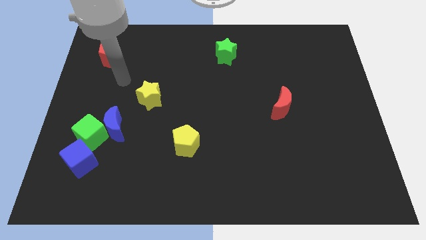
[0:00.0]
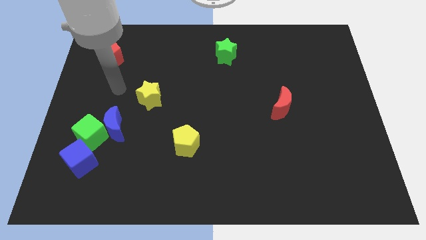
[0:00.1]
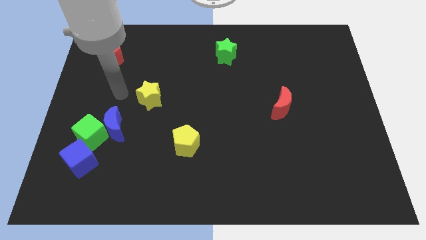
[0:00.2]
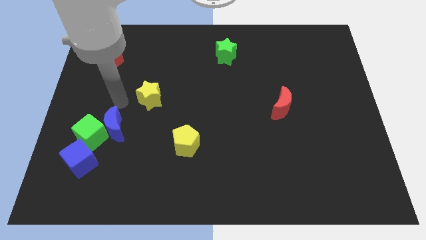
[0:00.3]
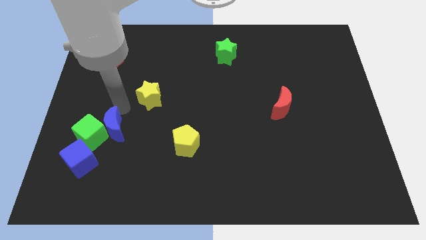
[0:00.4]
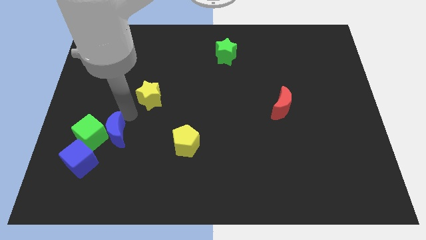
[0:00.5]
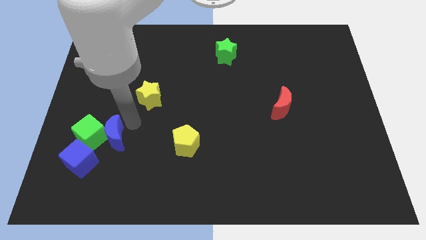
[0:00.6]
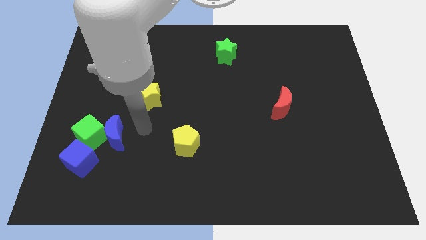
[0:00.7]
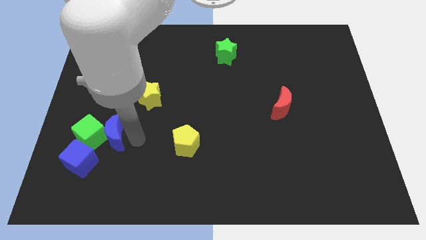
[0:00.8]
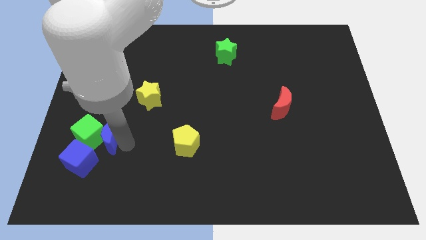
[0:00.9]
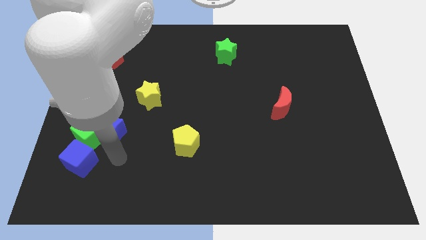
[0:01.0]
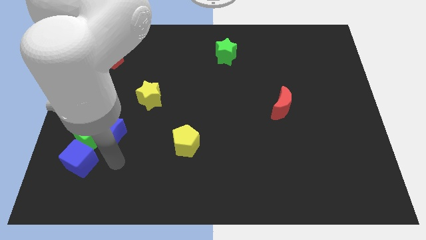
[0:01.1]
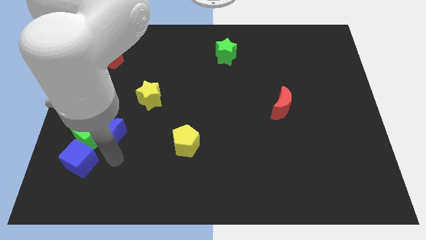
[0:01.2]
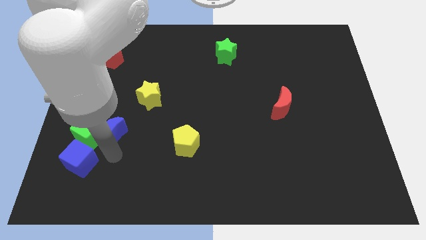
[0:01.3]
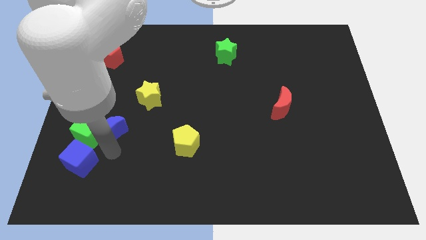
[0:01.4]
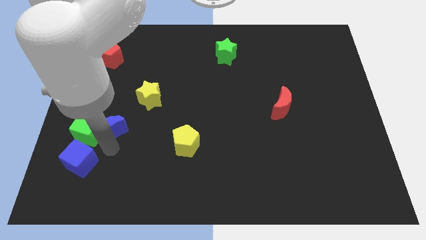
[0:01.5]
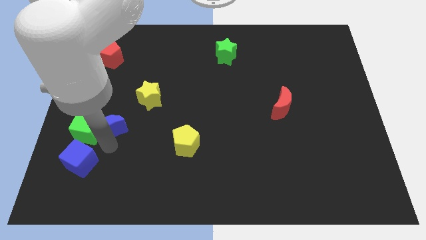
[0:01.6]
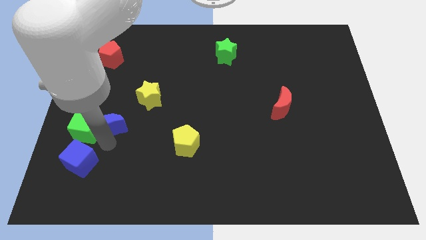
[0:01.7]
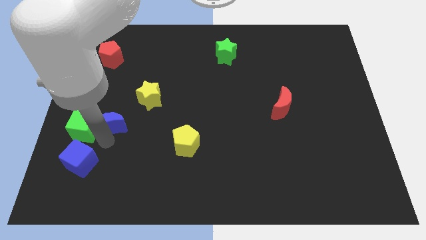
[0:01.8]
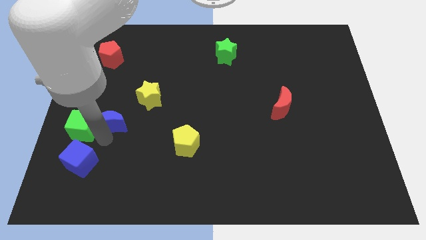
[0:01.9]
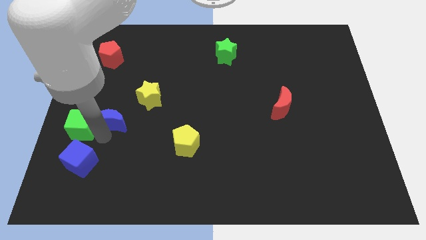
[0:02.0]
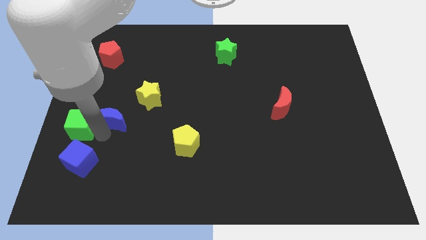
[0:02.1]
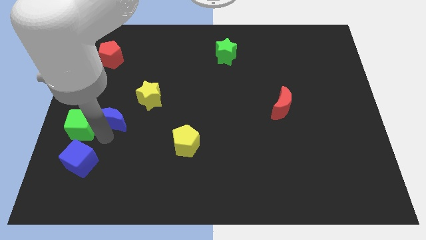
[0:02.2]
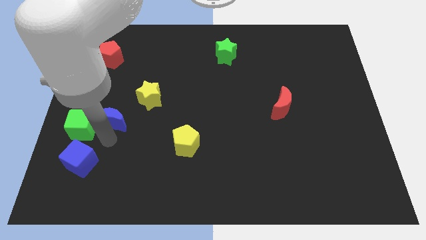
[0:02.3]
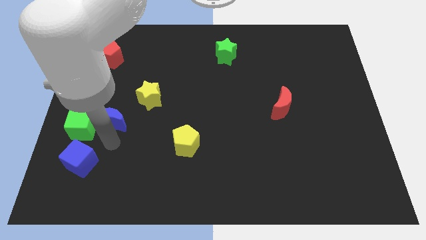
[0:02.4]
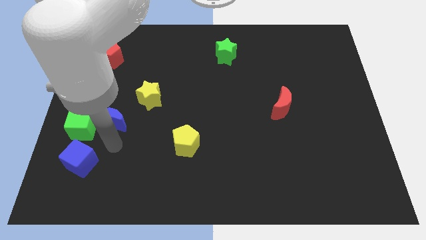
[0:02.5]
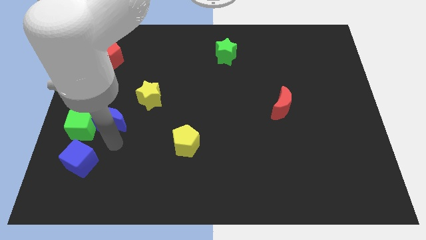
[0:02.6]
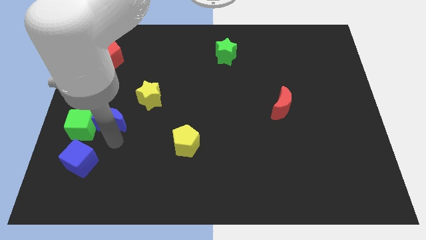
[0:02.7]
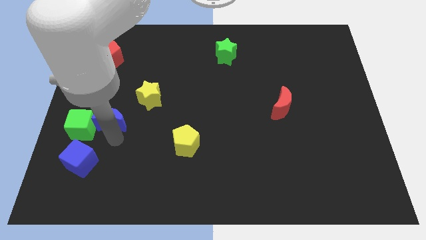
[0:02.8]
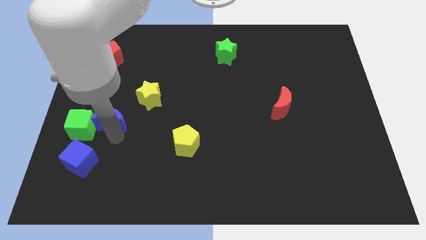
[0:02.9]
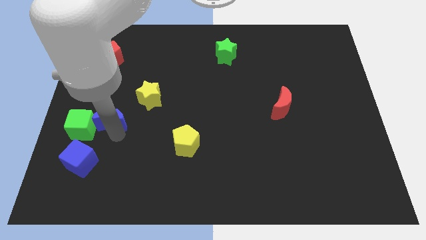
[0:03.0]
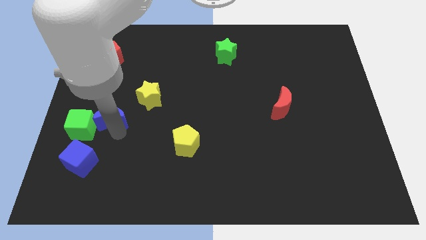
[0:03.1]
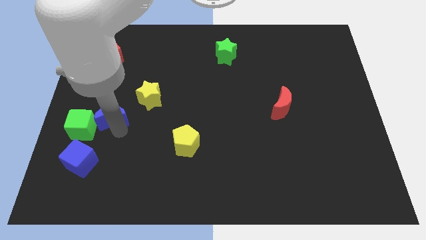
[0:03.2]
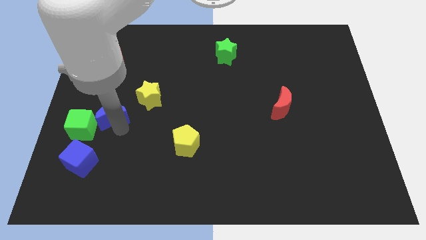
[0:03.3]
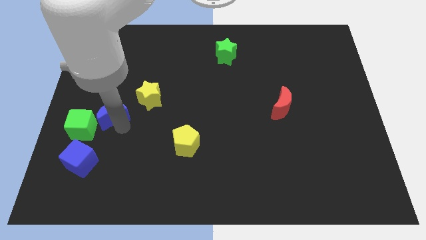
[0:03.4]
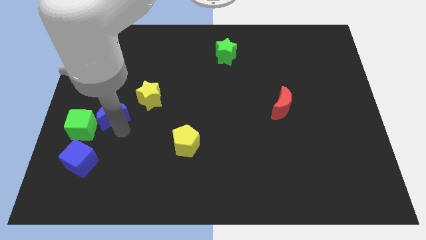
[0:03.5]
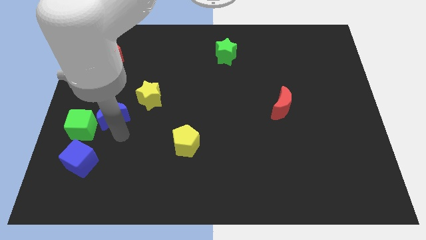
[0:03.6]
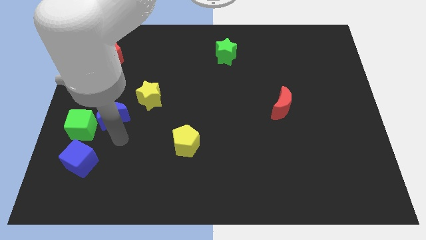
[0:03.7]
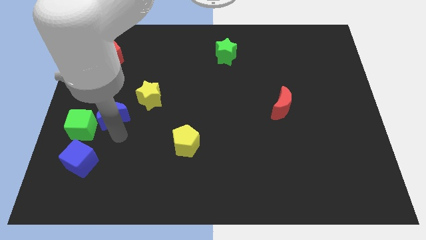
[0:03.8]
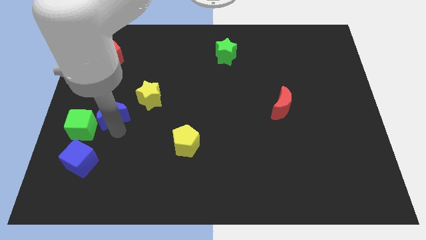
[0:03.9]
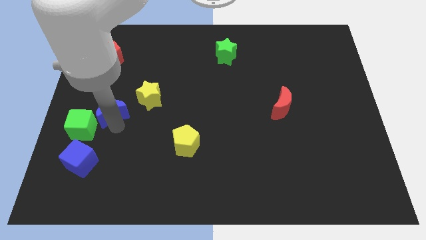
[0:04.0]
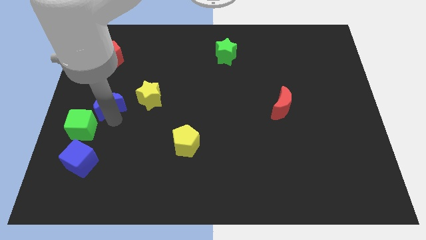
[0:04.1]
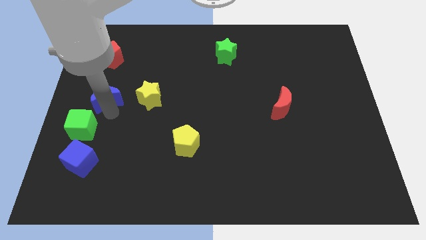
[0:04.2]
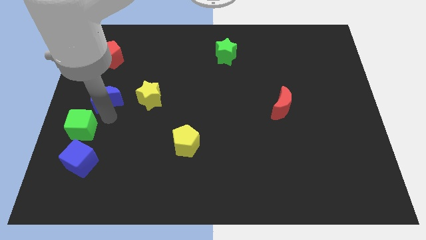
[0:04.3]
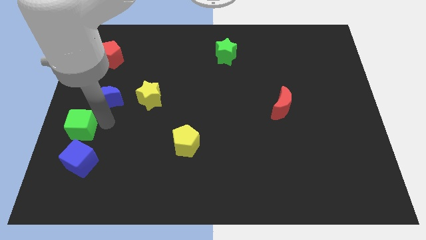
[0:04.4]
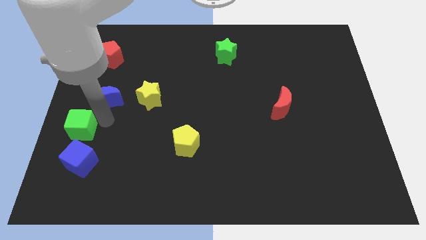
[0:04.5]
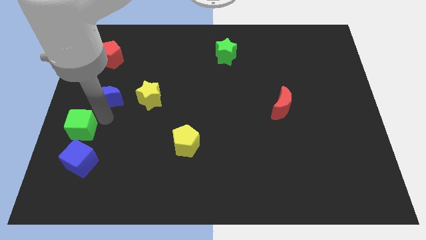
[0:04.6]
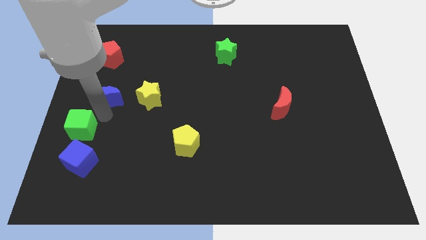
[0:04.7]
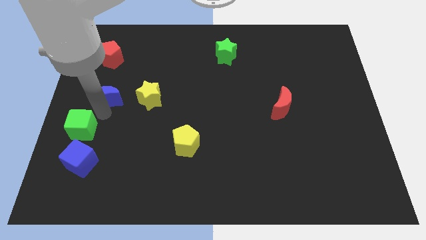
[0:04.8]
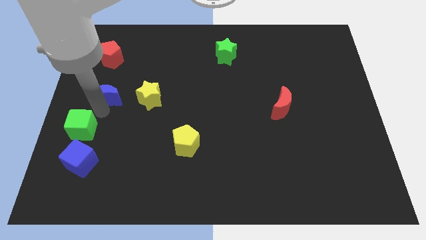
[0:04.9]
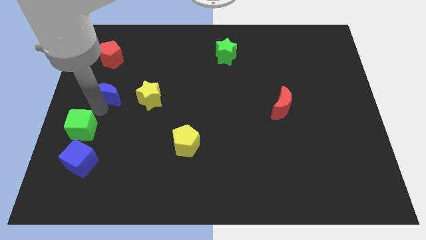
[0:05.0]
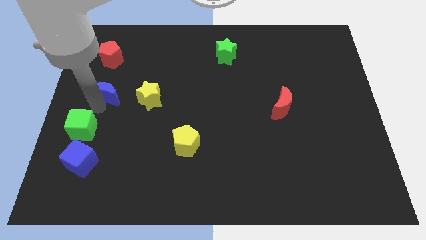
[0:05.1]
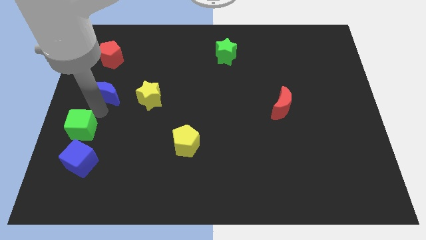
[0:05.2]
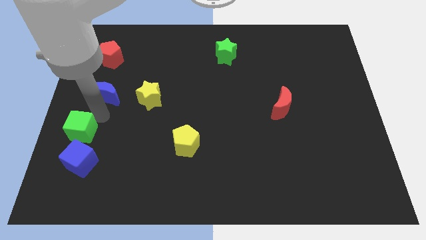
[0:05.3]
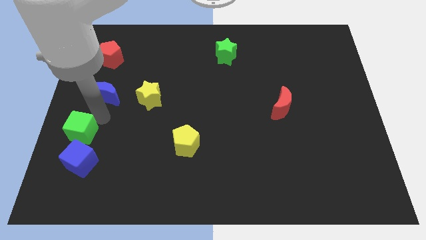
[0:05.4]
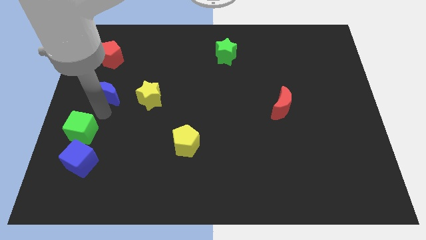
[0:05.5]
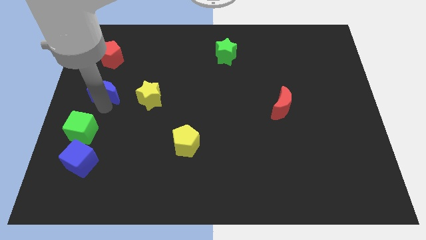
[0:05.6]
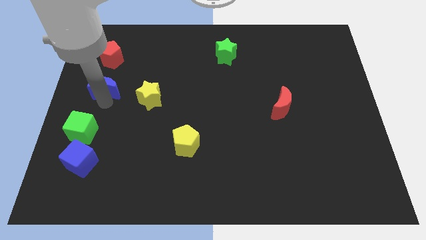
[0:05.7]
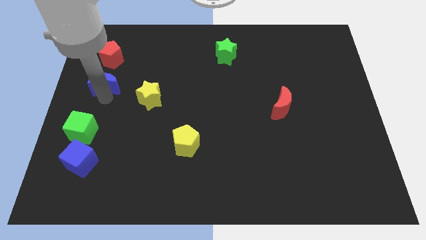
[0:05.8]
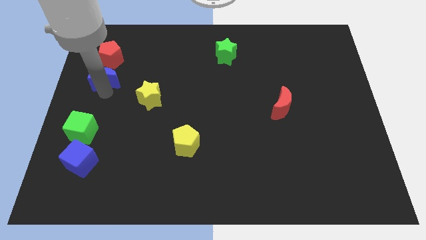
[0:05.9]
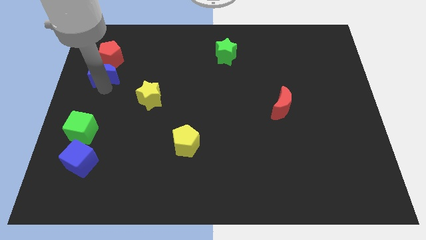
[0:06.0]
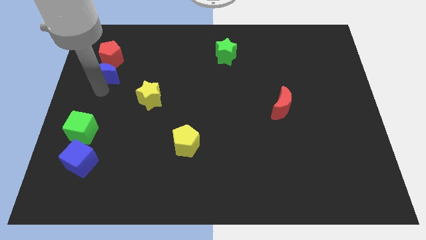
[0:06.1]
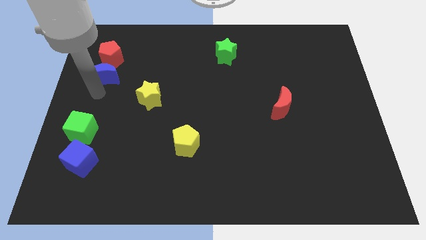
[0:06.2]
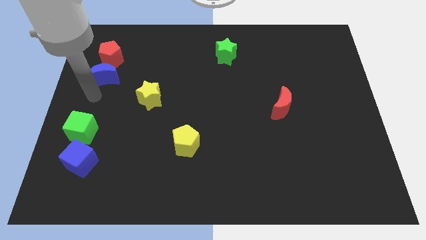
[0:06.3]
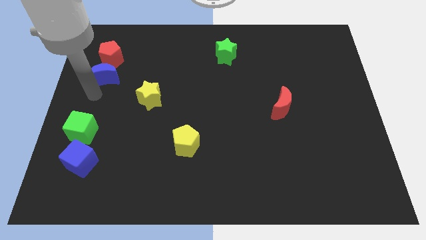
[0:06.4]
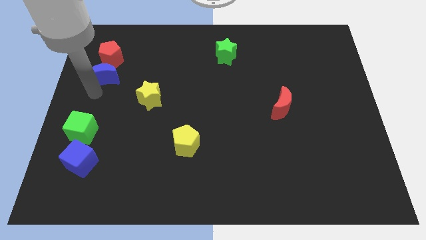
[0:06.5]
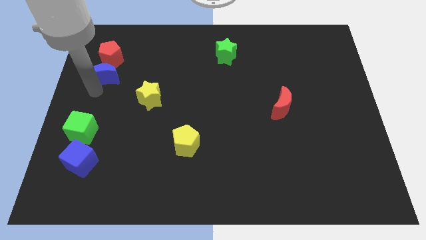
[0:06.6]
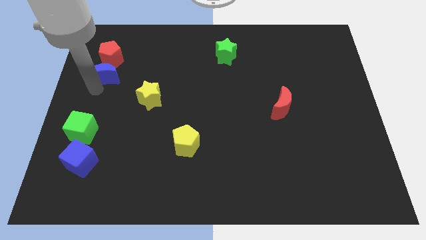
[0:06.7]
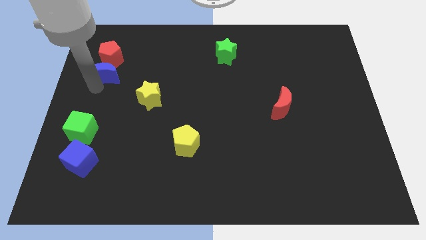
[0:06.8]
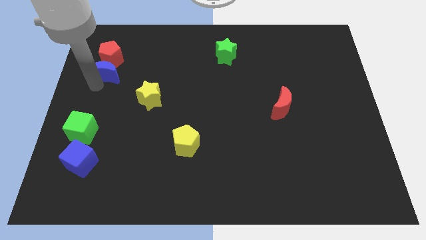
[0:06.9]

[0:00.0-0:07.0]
slide the blue moon to the red pentagon
